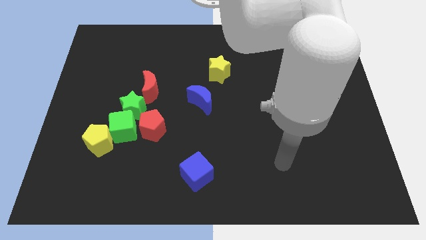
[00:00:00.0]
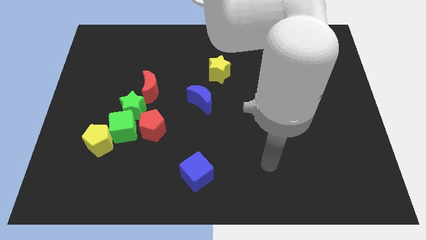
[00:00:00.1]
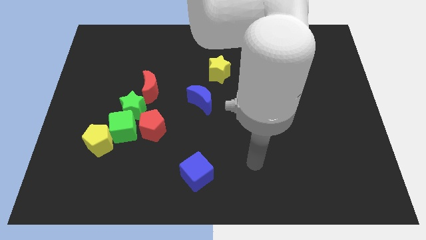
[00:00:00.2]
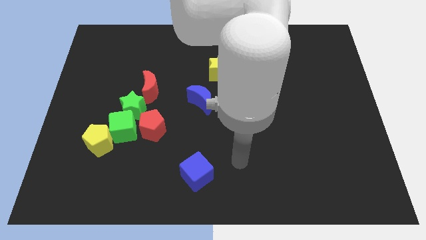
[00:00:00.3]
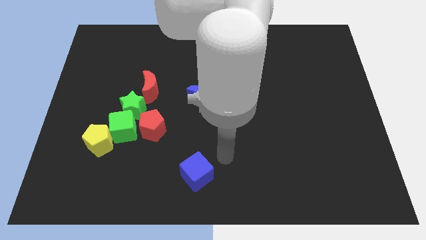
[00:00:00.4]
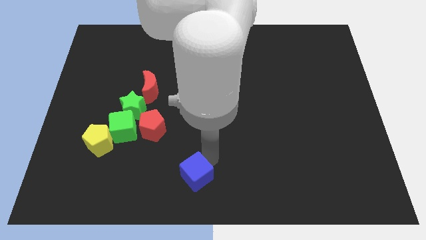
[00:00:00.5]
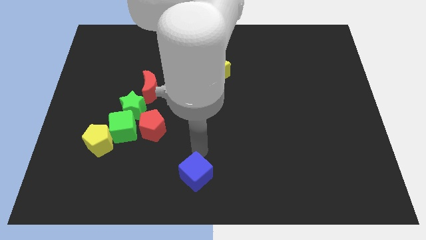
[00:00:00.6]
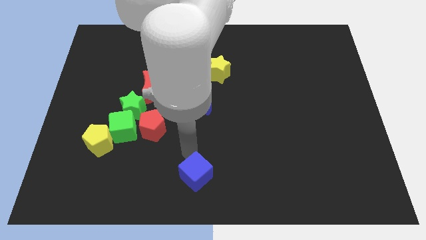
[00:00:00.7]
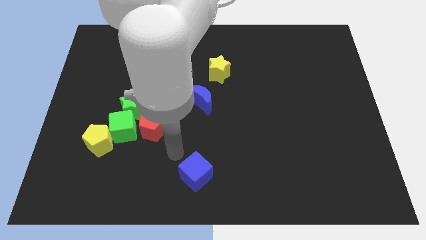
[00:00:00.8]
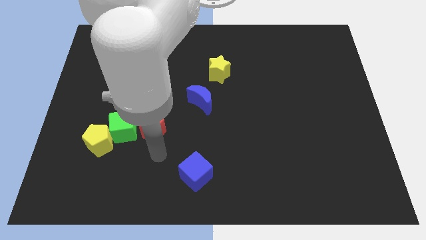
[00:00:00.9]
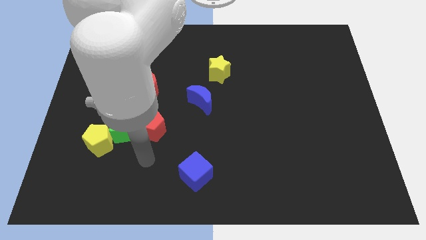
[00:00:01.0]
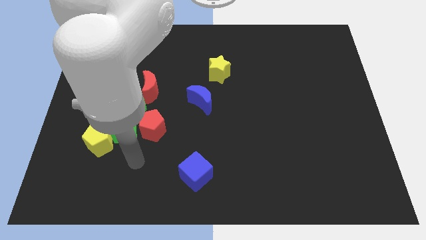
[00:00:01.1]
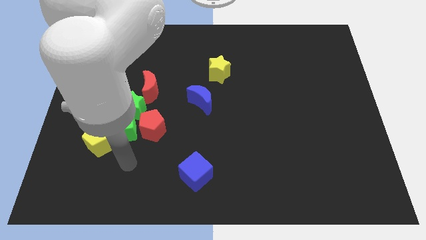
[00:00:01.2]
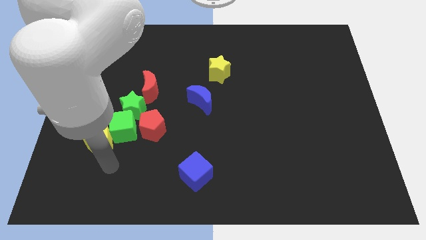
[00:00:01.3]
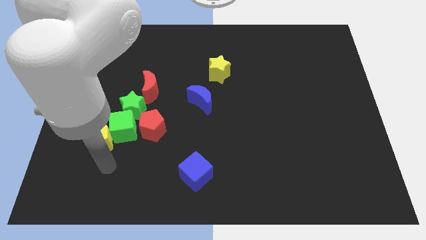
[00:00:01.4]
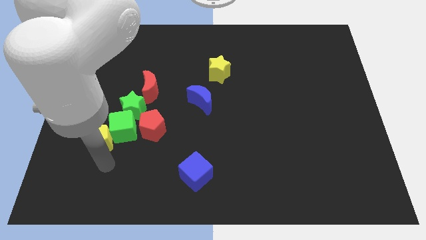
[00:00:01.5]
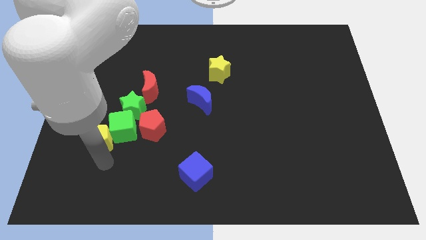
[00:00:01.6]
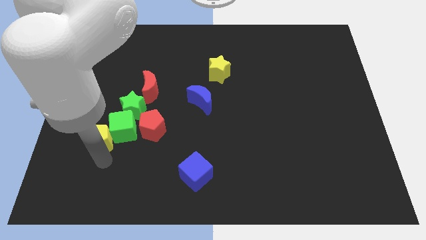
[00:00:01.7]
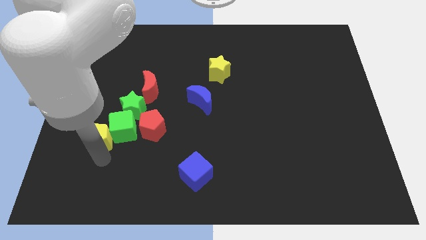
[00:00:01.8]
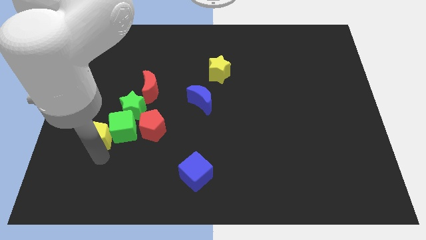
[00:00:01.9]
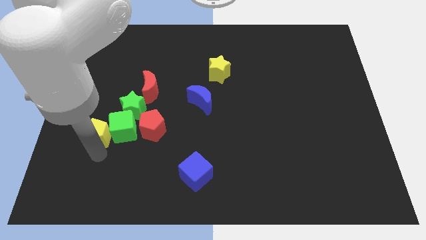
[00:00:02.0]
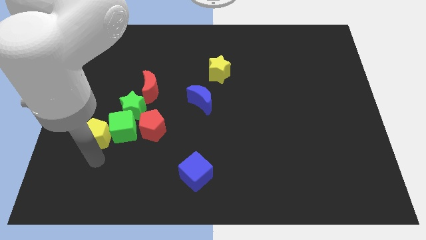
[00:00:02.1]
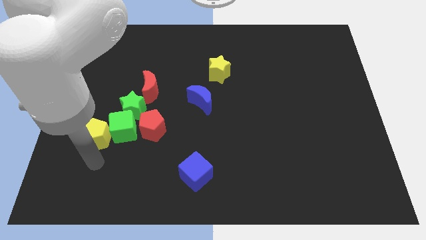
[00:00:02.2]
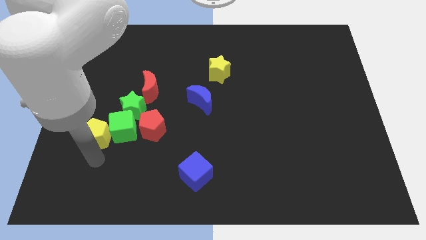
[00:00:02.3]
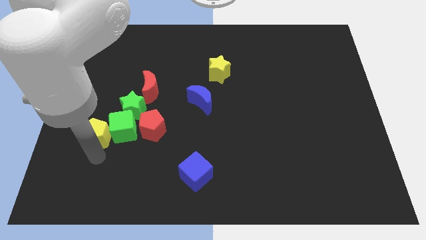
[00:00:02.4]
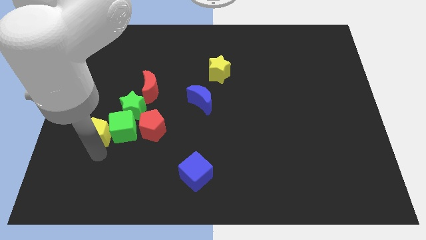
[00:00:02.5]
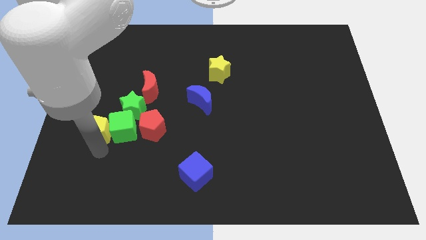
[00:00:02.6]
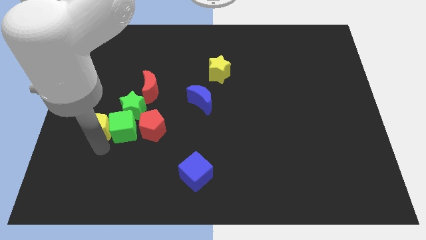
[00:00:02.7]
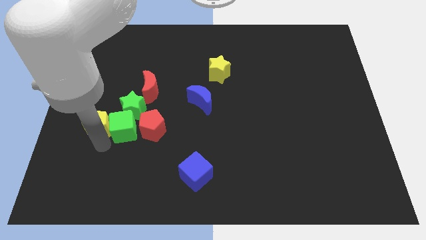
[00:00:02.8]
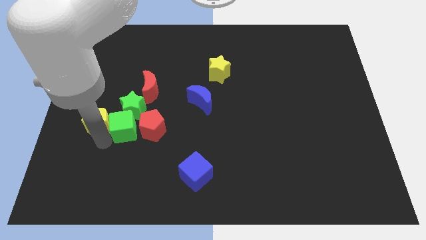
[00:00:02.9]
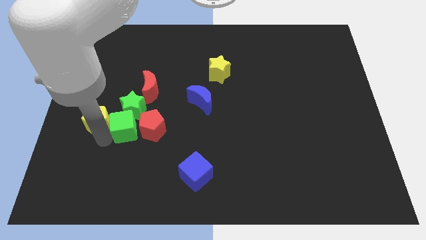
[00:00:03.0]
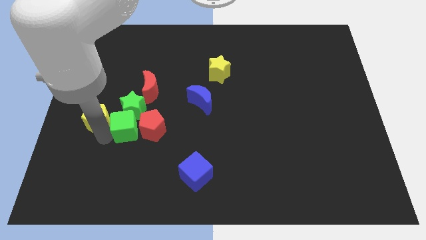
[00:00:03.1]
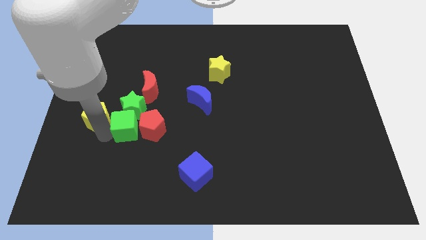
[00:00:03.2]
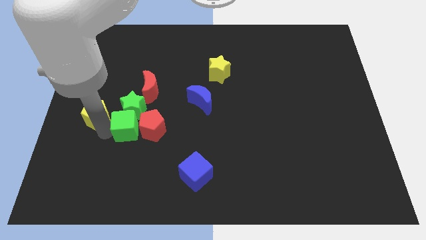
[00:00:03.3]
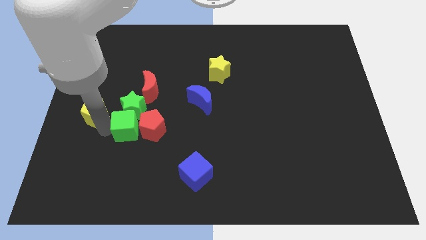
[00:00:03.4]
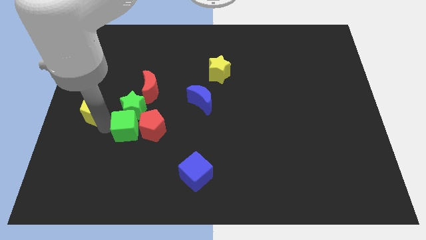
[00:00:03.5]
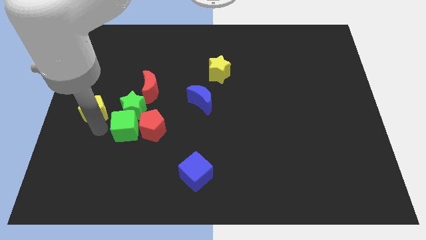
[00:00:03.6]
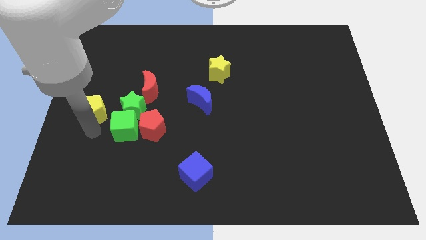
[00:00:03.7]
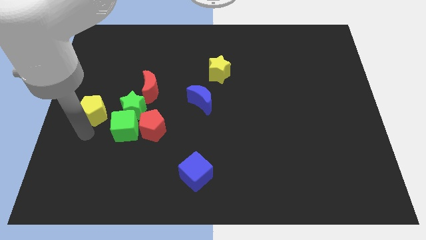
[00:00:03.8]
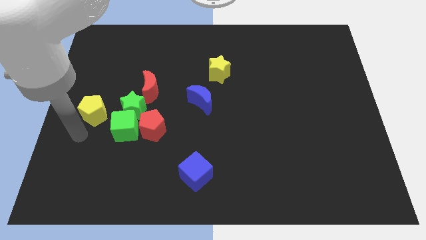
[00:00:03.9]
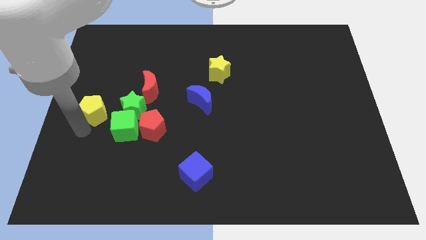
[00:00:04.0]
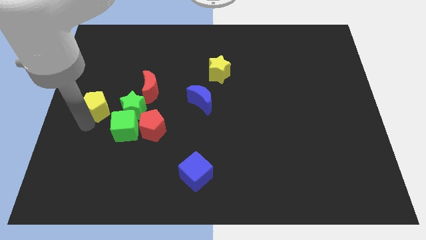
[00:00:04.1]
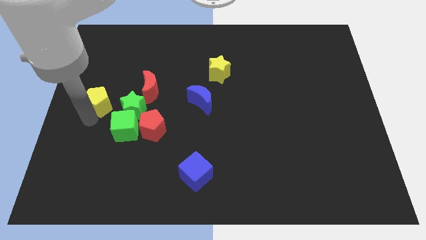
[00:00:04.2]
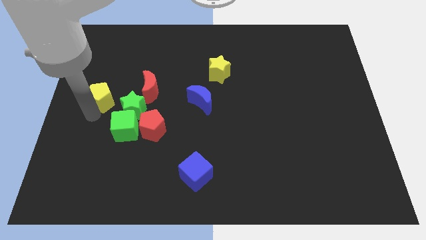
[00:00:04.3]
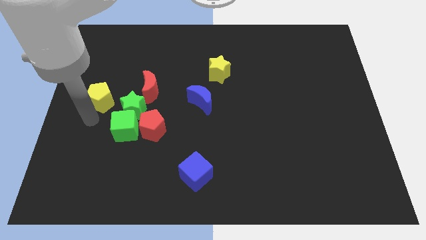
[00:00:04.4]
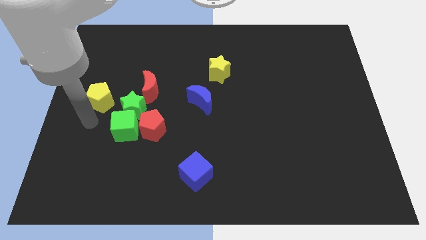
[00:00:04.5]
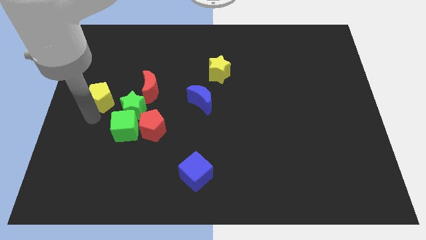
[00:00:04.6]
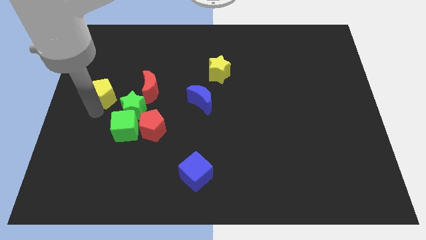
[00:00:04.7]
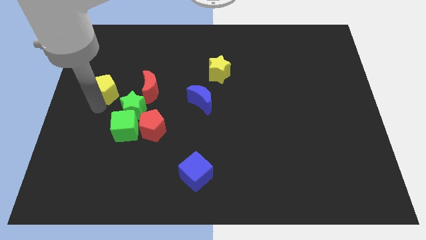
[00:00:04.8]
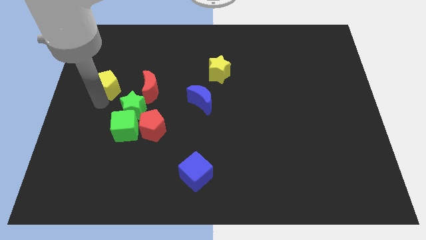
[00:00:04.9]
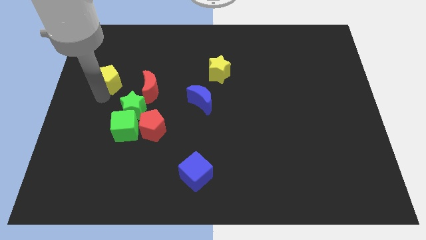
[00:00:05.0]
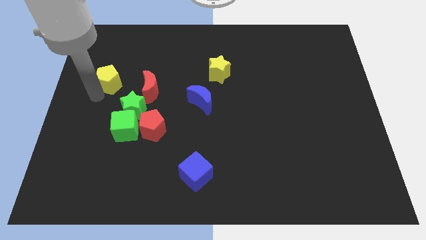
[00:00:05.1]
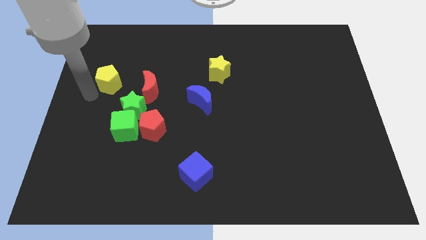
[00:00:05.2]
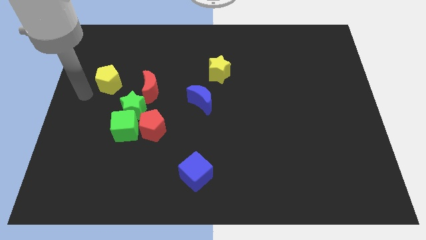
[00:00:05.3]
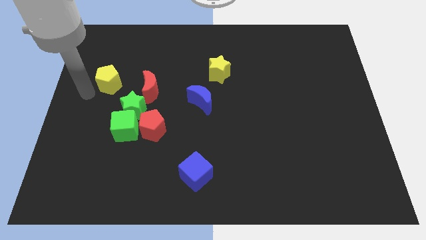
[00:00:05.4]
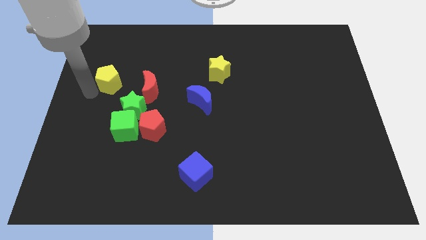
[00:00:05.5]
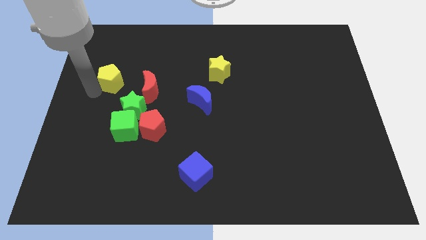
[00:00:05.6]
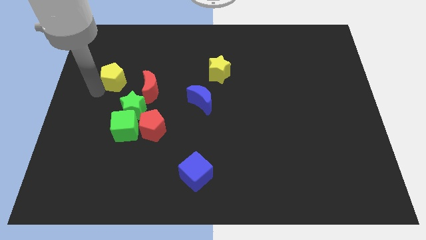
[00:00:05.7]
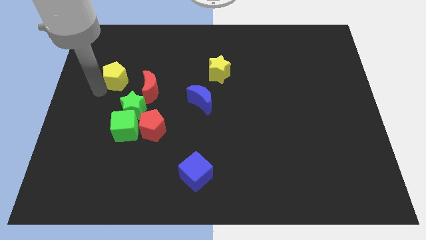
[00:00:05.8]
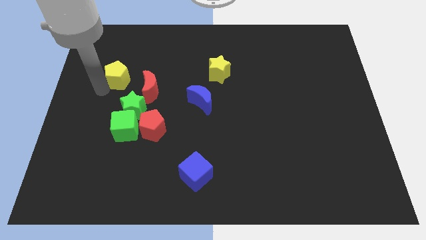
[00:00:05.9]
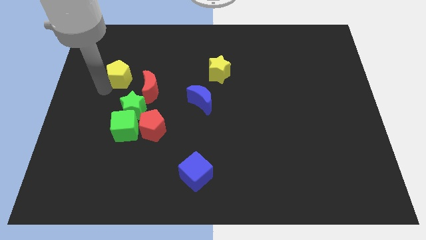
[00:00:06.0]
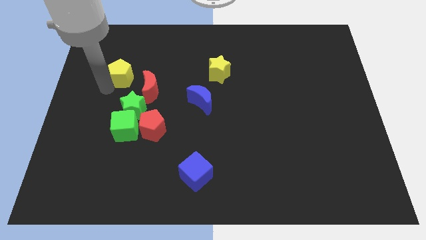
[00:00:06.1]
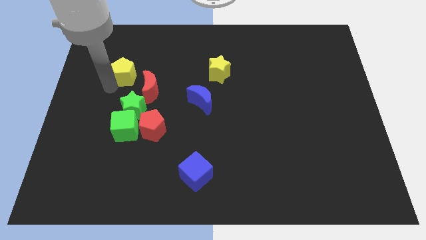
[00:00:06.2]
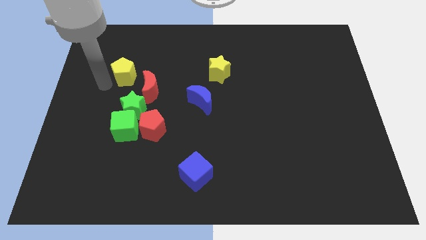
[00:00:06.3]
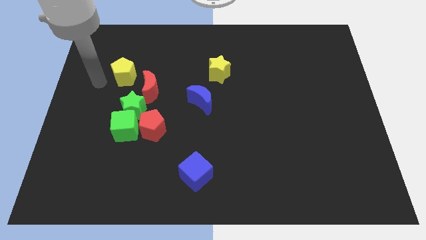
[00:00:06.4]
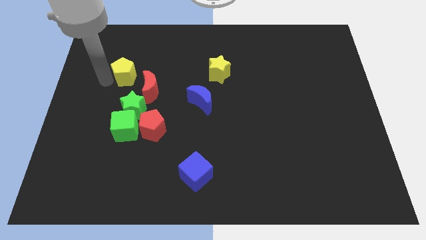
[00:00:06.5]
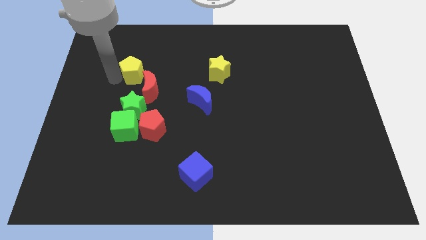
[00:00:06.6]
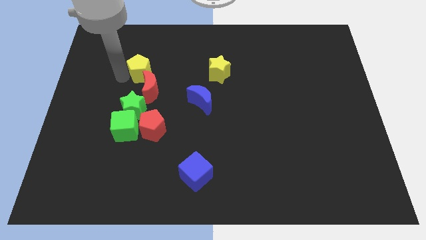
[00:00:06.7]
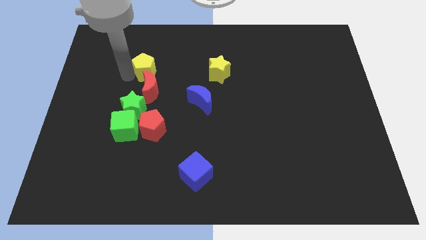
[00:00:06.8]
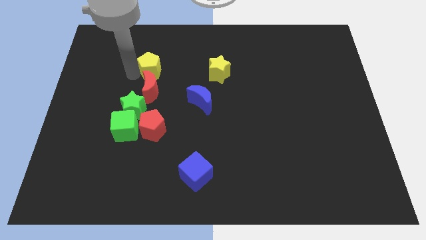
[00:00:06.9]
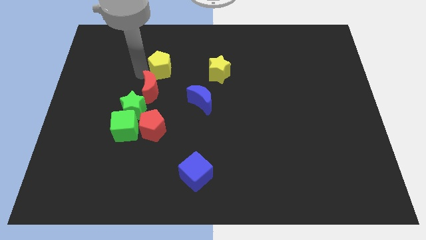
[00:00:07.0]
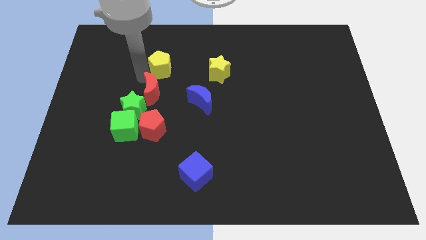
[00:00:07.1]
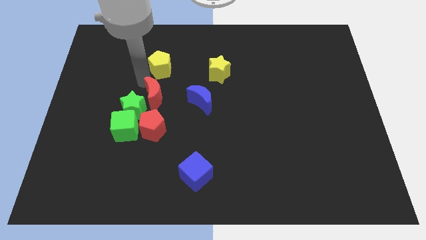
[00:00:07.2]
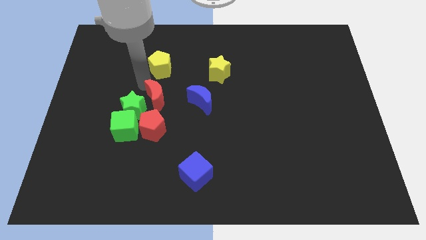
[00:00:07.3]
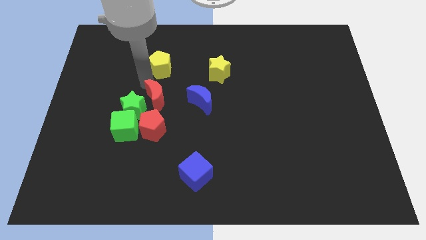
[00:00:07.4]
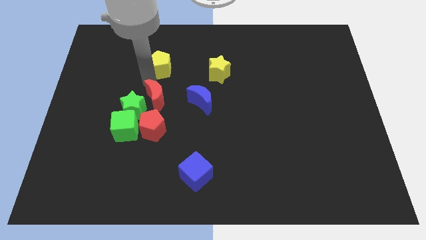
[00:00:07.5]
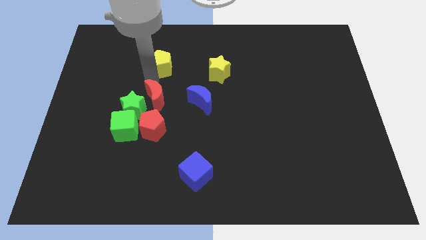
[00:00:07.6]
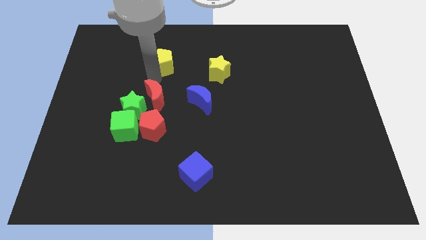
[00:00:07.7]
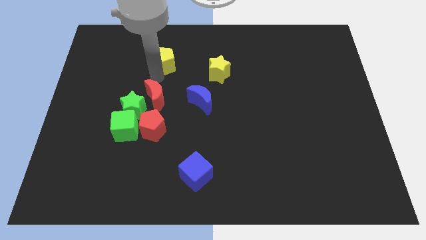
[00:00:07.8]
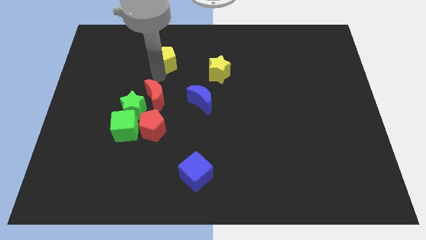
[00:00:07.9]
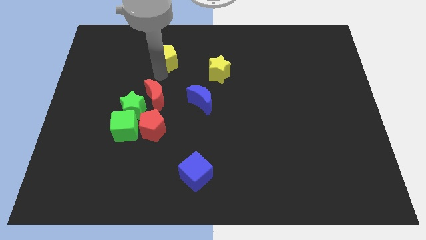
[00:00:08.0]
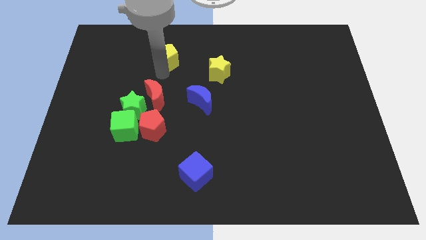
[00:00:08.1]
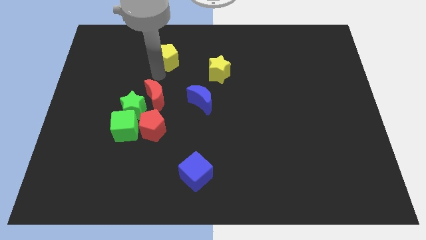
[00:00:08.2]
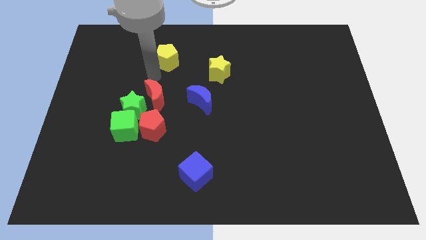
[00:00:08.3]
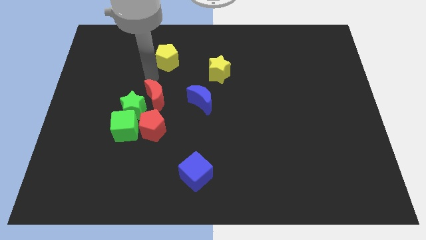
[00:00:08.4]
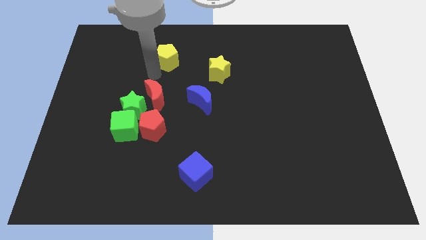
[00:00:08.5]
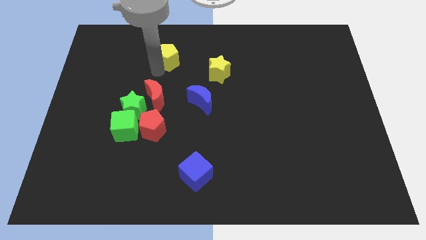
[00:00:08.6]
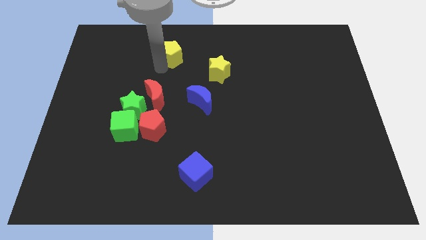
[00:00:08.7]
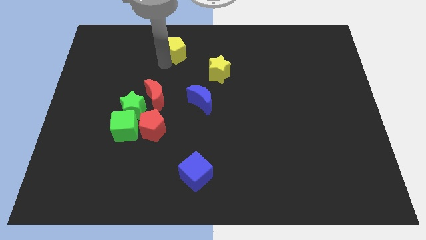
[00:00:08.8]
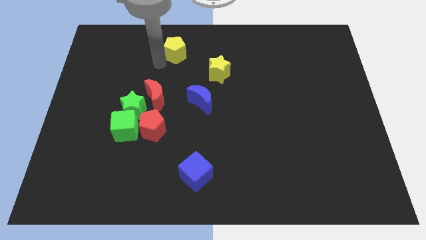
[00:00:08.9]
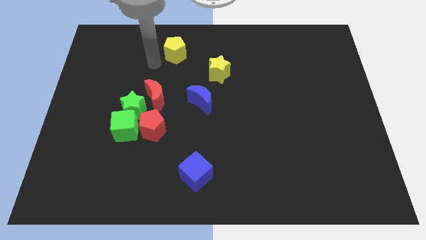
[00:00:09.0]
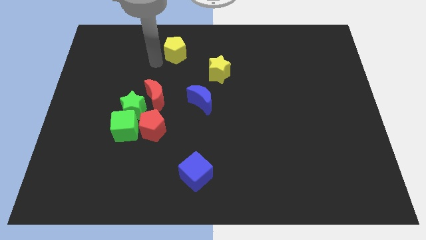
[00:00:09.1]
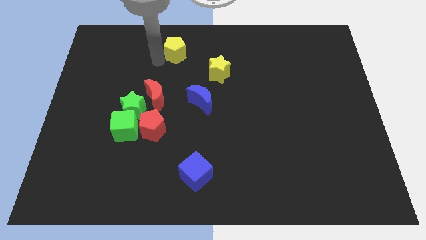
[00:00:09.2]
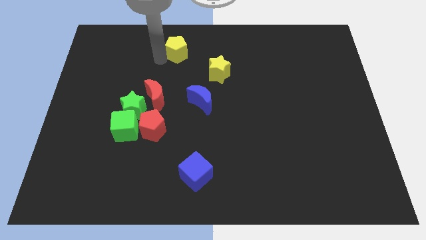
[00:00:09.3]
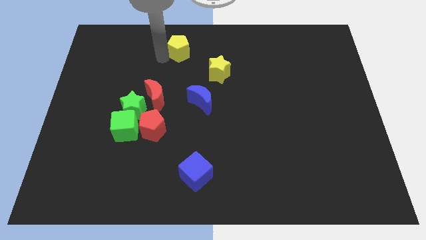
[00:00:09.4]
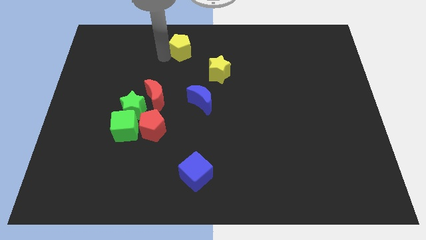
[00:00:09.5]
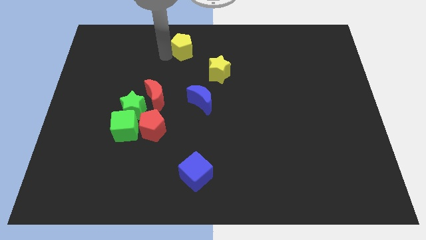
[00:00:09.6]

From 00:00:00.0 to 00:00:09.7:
slide the yellow pentagon to the top side
